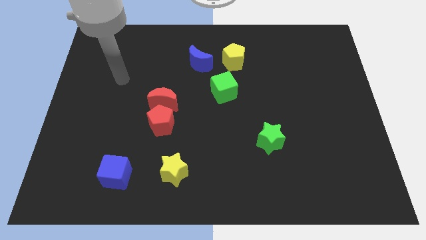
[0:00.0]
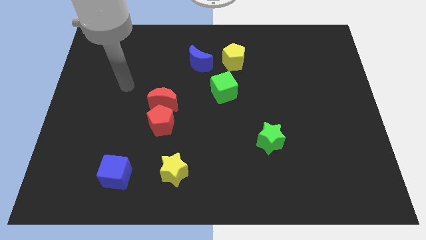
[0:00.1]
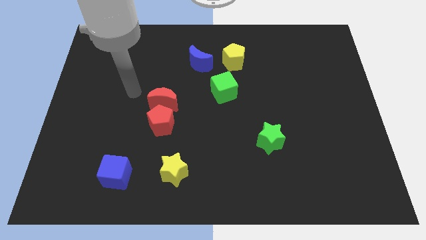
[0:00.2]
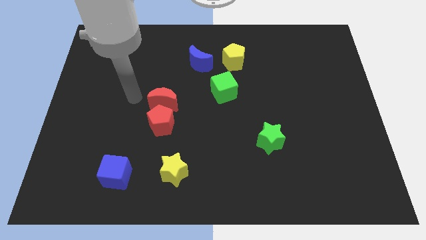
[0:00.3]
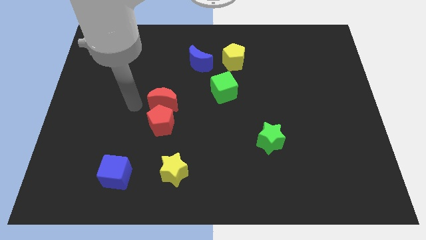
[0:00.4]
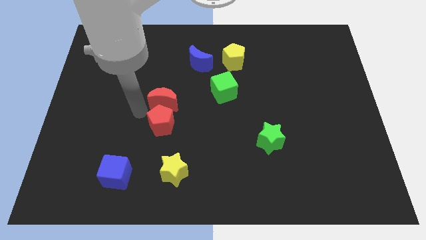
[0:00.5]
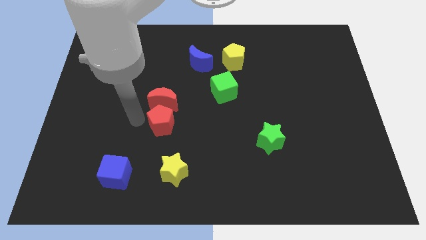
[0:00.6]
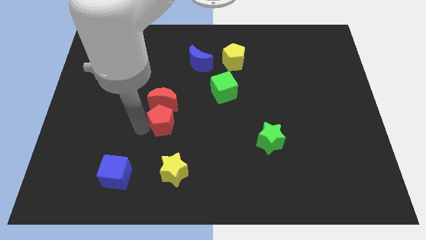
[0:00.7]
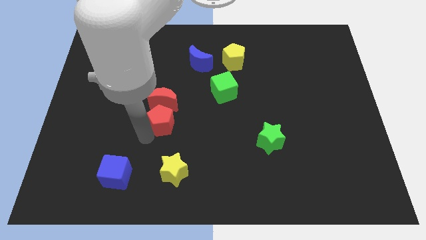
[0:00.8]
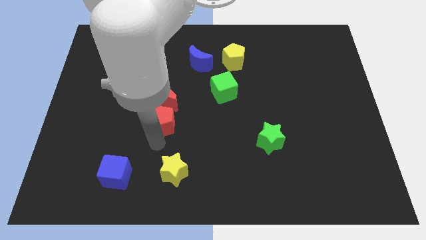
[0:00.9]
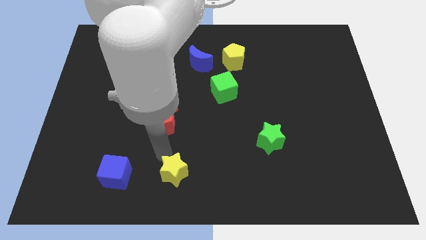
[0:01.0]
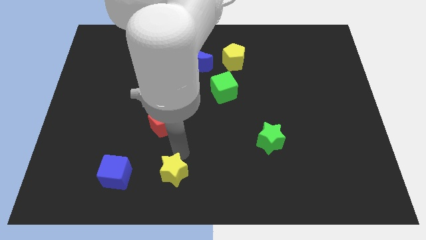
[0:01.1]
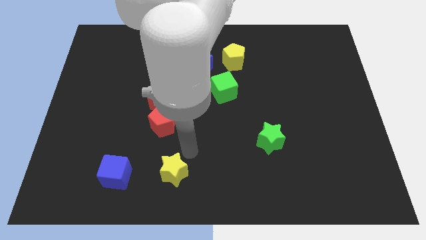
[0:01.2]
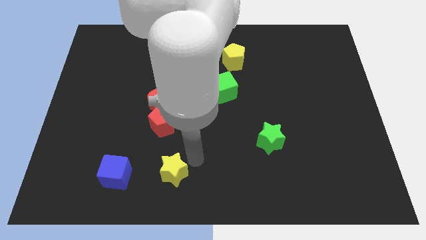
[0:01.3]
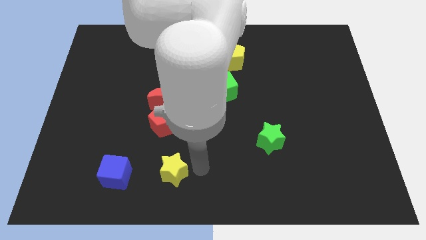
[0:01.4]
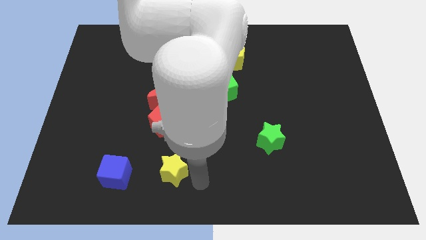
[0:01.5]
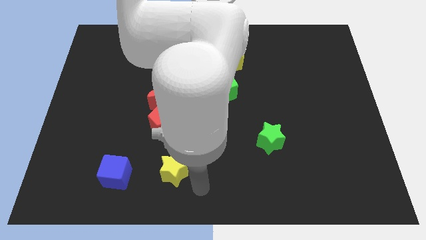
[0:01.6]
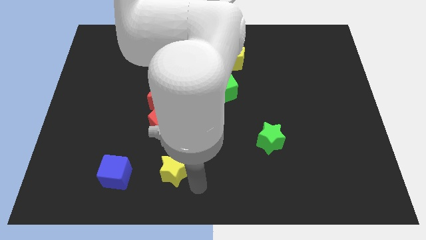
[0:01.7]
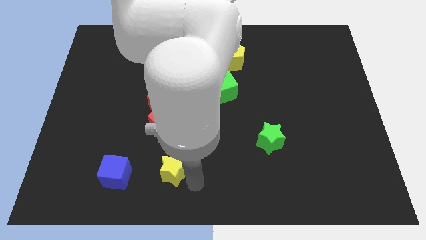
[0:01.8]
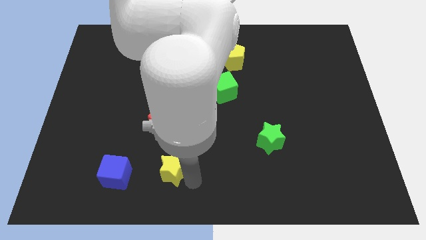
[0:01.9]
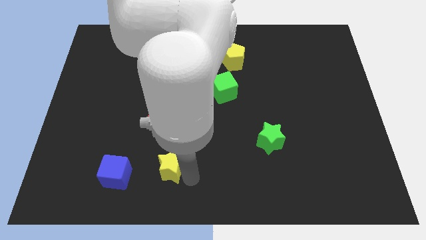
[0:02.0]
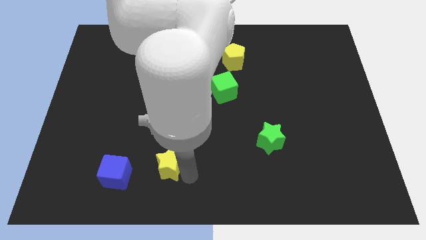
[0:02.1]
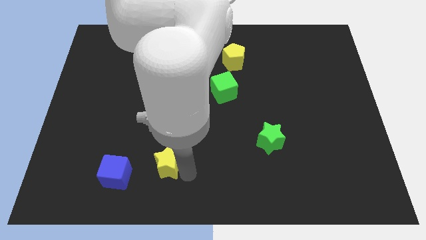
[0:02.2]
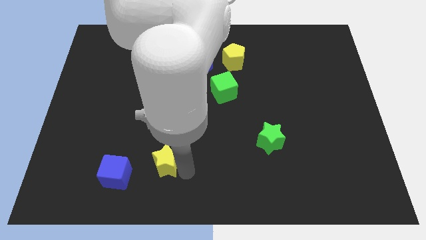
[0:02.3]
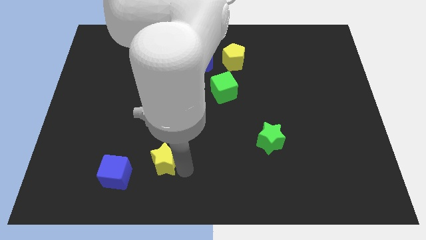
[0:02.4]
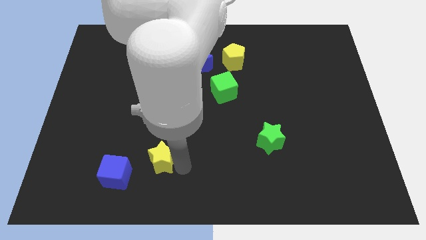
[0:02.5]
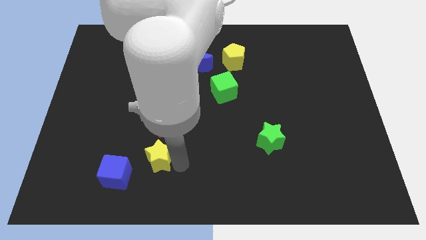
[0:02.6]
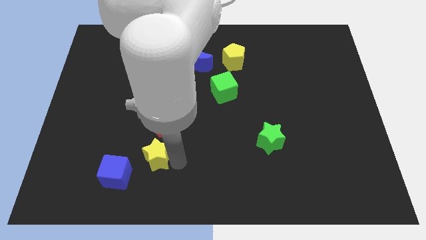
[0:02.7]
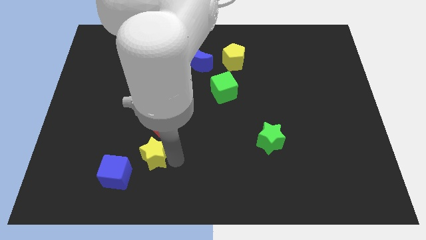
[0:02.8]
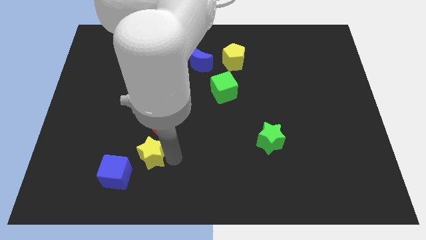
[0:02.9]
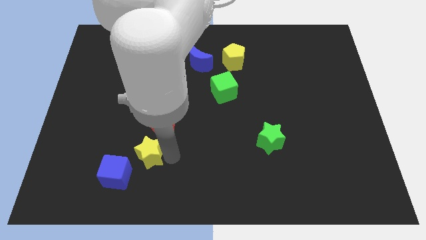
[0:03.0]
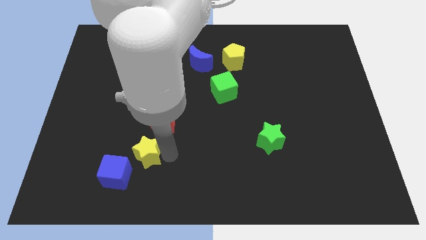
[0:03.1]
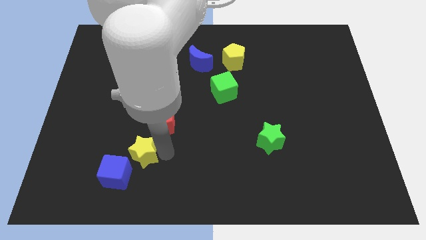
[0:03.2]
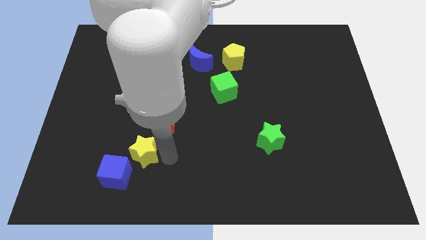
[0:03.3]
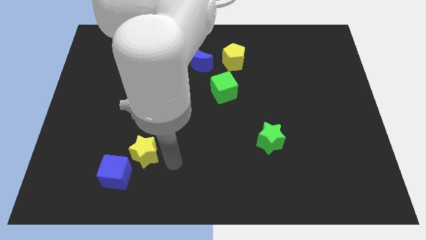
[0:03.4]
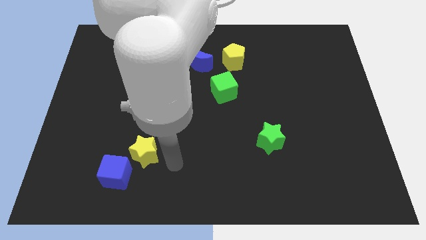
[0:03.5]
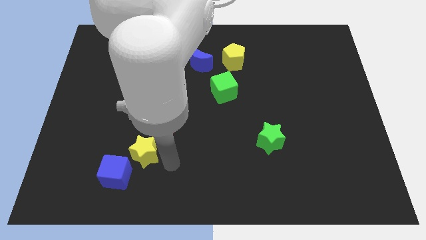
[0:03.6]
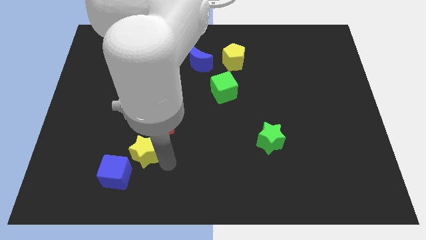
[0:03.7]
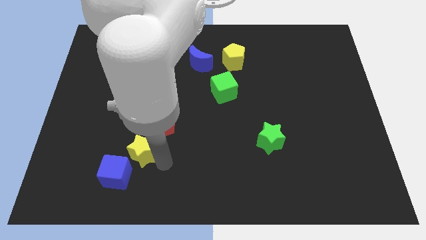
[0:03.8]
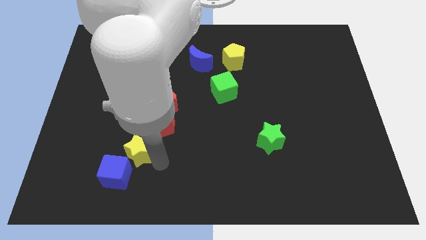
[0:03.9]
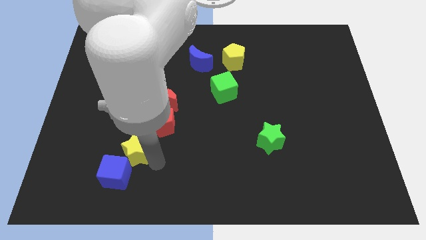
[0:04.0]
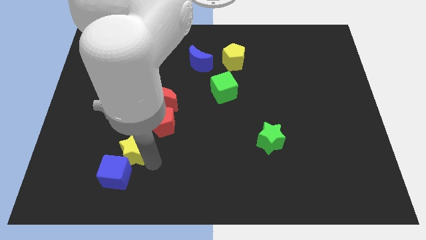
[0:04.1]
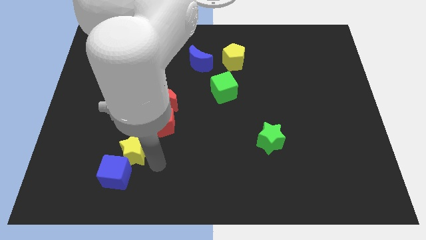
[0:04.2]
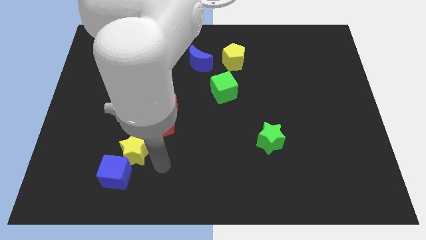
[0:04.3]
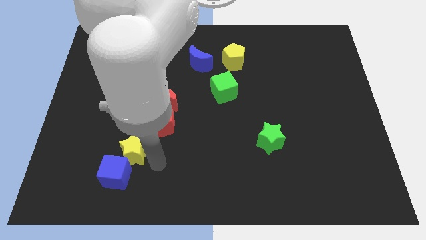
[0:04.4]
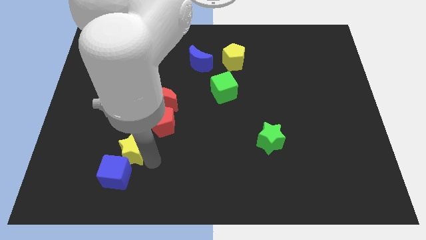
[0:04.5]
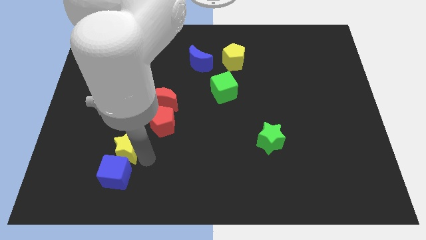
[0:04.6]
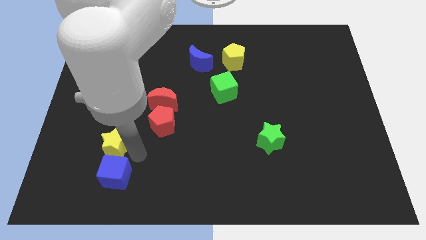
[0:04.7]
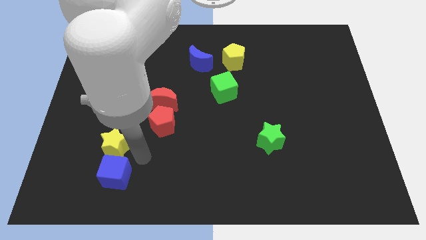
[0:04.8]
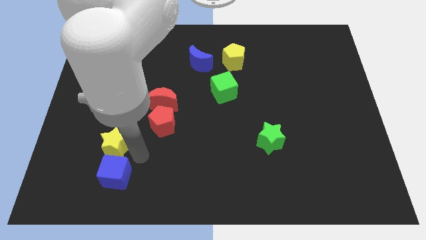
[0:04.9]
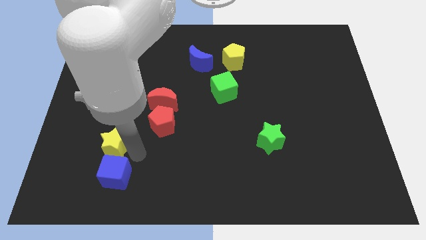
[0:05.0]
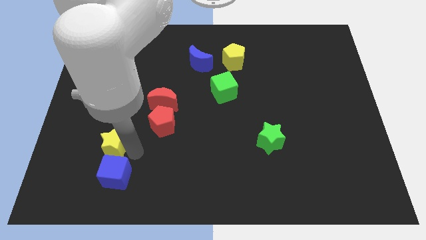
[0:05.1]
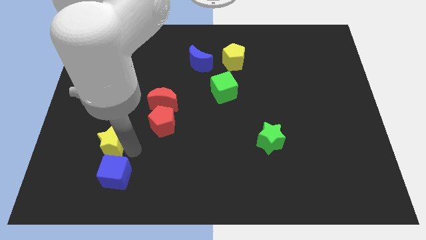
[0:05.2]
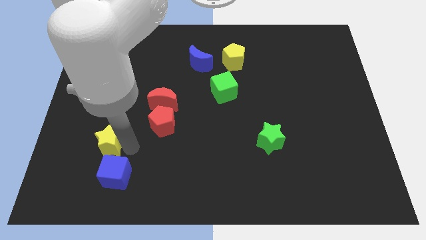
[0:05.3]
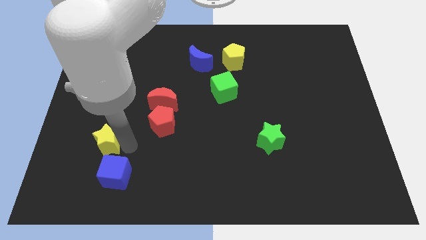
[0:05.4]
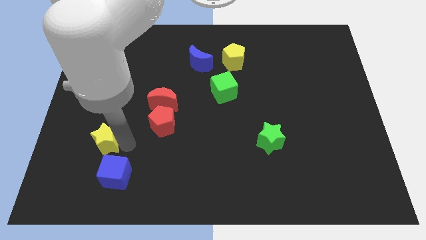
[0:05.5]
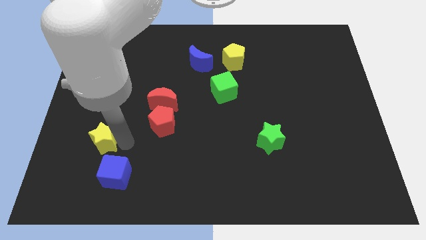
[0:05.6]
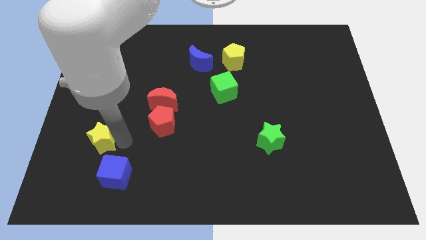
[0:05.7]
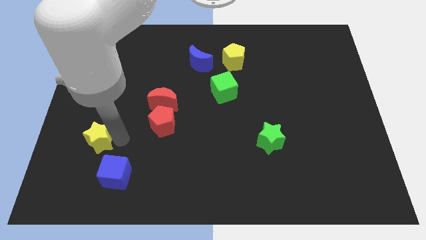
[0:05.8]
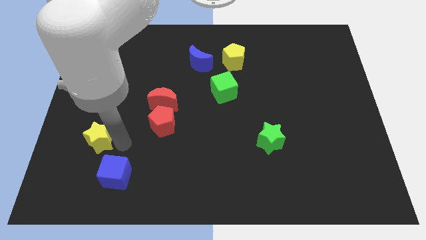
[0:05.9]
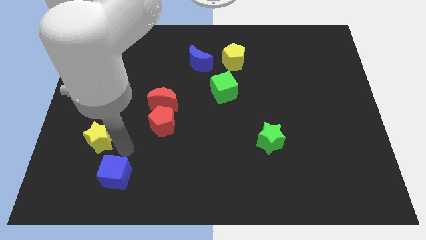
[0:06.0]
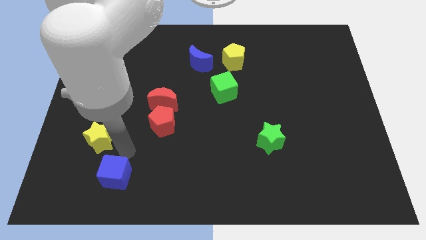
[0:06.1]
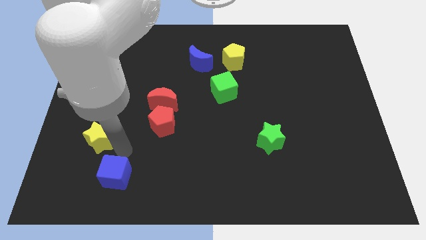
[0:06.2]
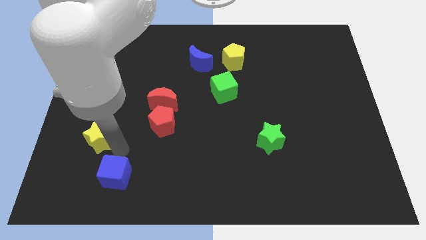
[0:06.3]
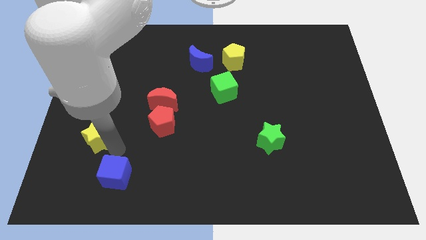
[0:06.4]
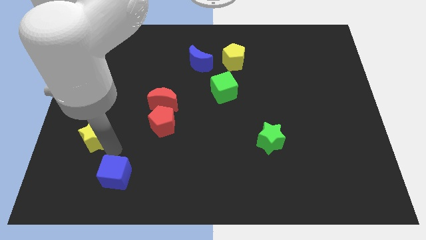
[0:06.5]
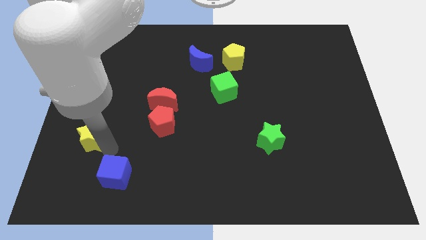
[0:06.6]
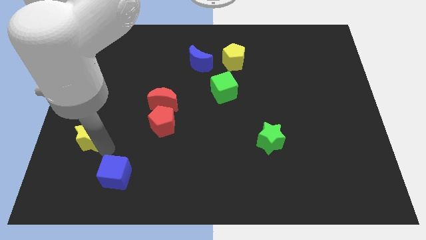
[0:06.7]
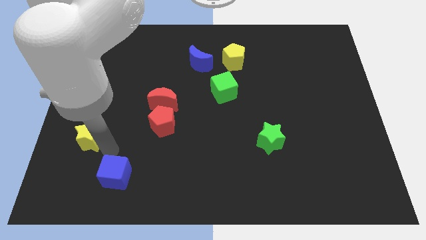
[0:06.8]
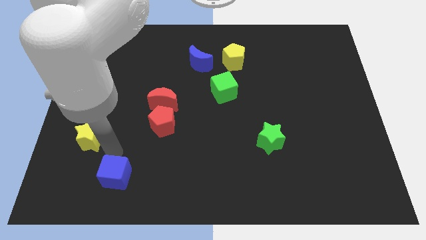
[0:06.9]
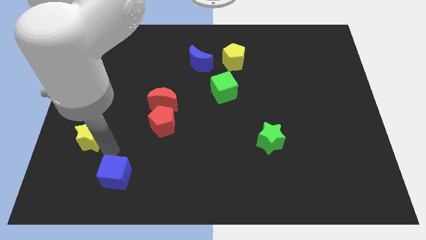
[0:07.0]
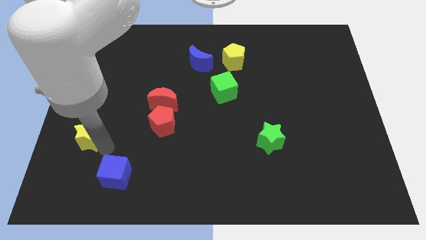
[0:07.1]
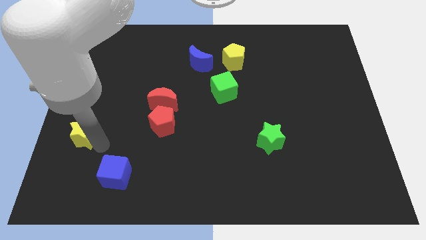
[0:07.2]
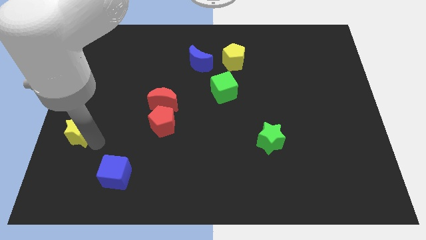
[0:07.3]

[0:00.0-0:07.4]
slide the yellow star to the center left
